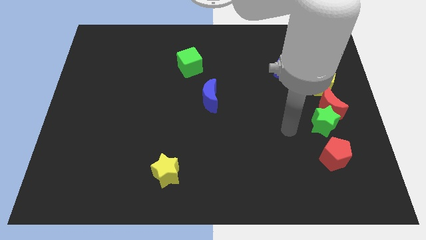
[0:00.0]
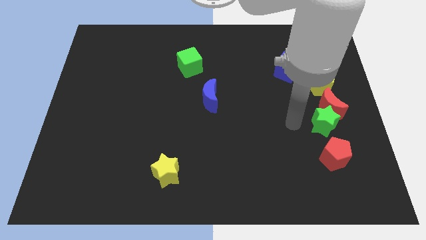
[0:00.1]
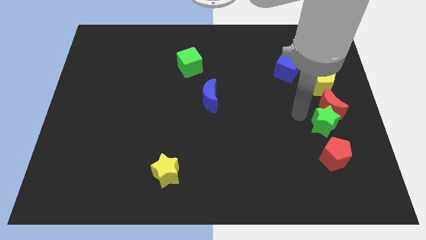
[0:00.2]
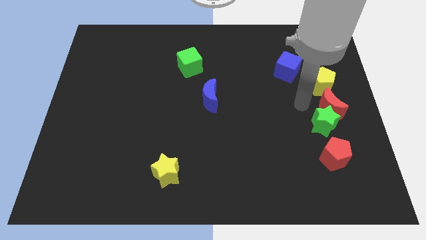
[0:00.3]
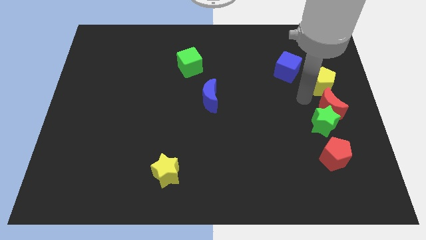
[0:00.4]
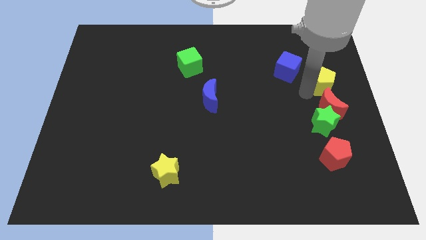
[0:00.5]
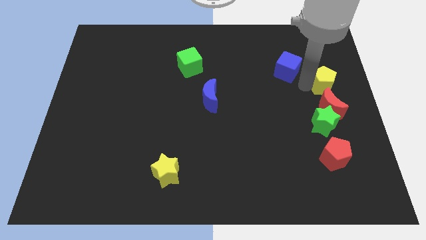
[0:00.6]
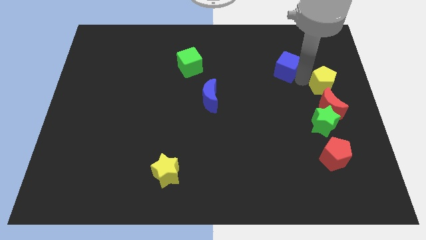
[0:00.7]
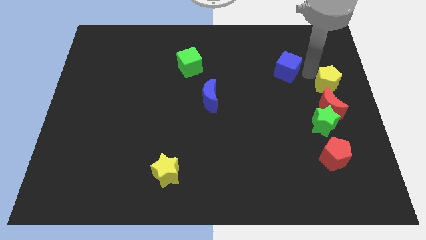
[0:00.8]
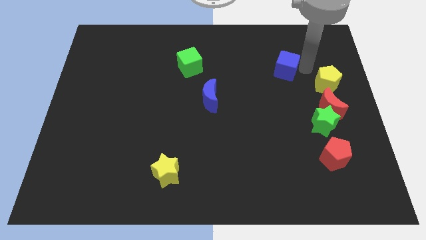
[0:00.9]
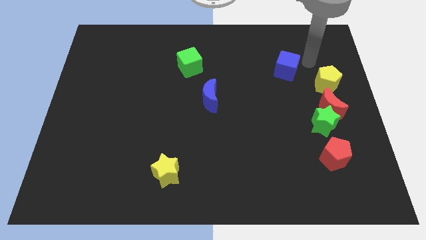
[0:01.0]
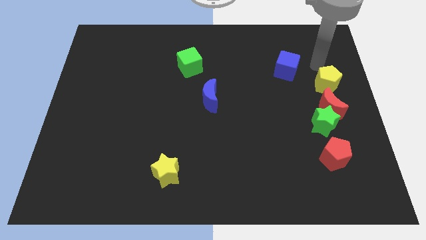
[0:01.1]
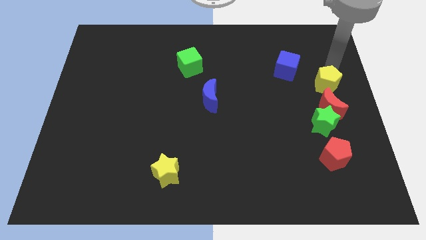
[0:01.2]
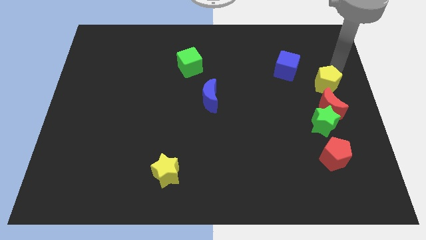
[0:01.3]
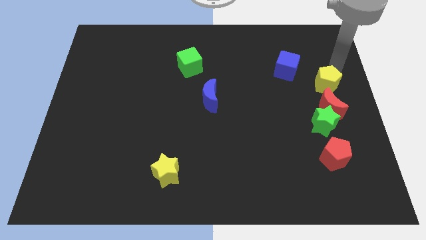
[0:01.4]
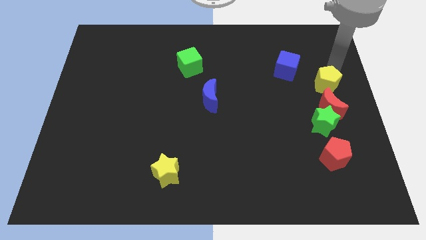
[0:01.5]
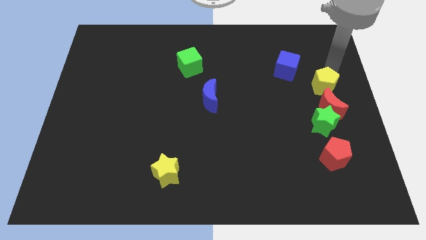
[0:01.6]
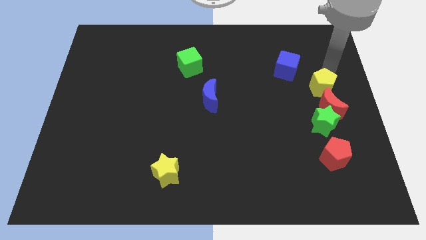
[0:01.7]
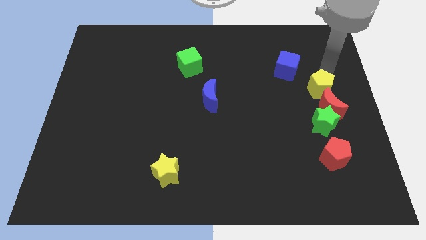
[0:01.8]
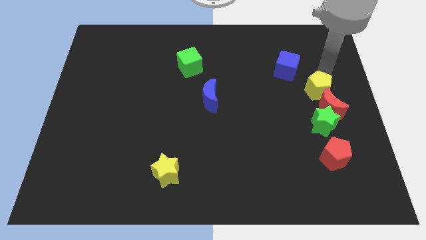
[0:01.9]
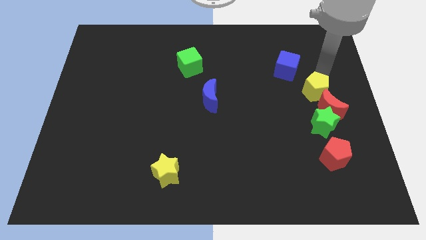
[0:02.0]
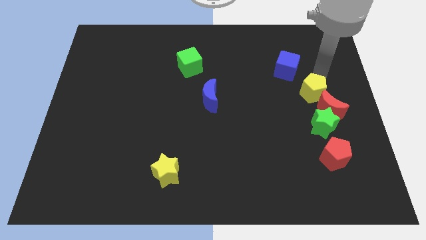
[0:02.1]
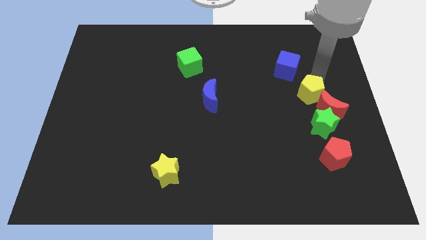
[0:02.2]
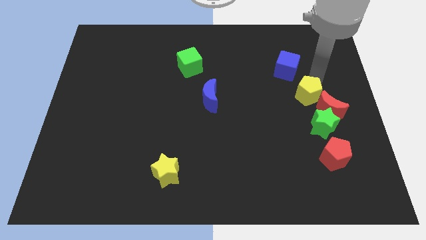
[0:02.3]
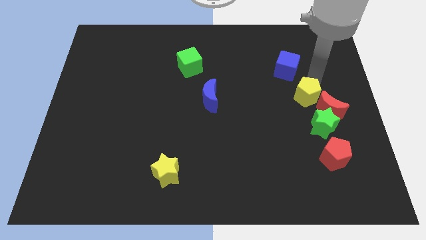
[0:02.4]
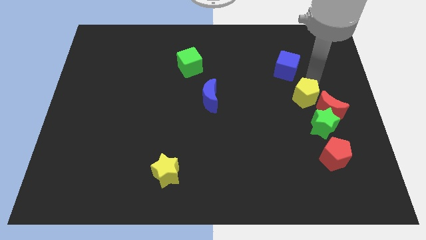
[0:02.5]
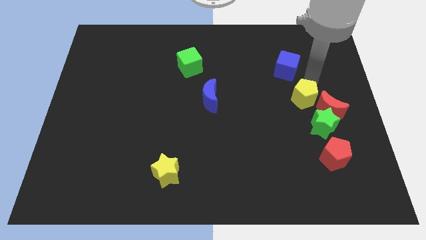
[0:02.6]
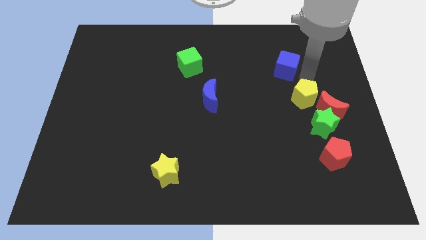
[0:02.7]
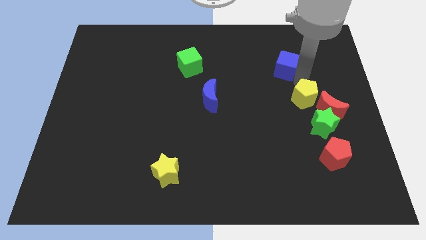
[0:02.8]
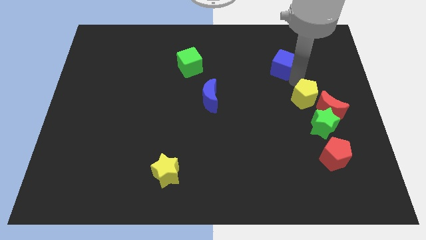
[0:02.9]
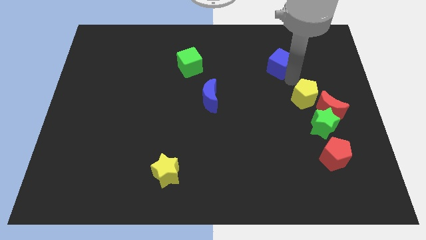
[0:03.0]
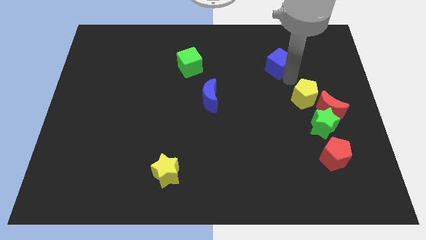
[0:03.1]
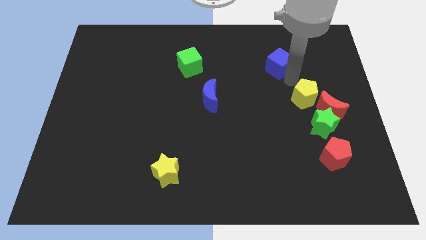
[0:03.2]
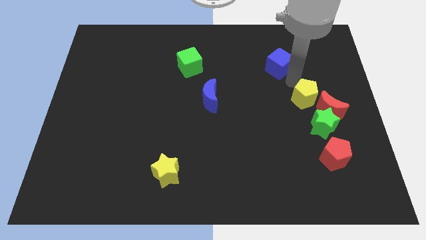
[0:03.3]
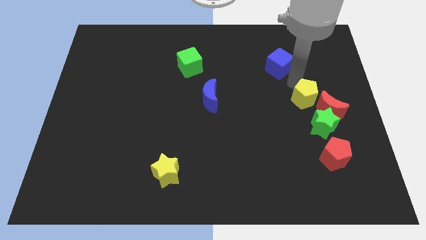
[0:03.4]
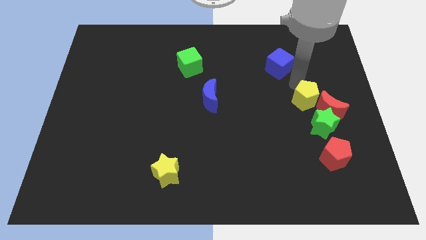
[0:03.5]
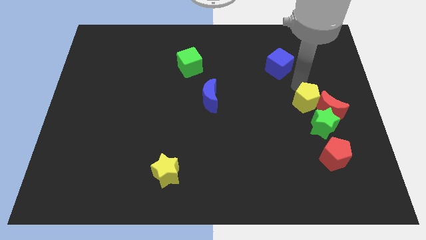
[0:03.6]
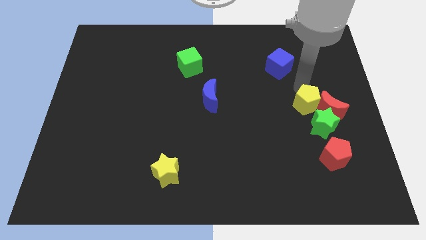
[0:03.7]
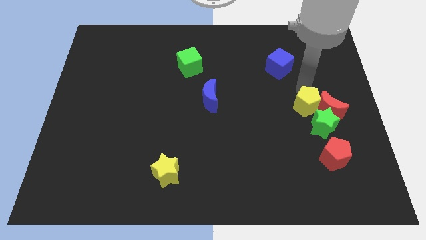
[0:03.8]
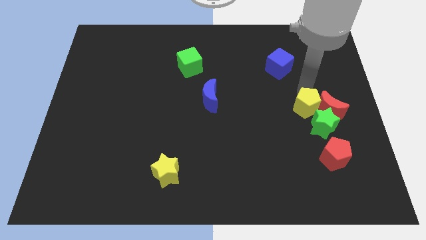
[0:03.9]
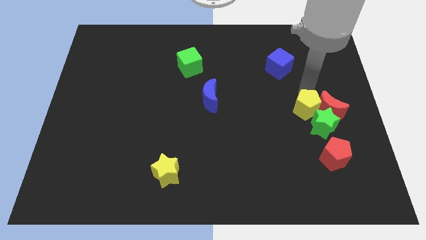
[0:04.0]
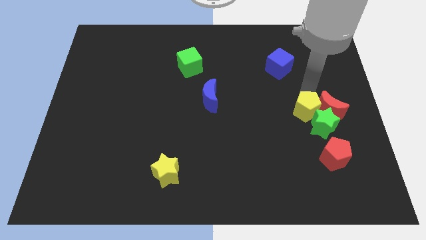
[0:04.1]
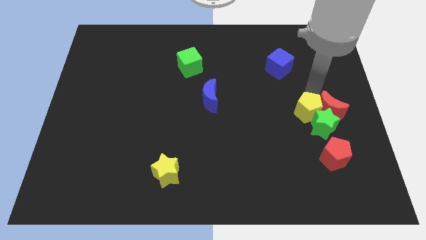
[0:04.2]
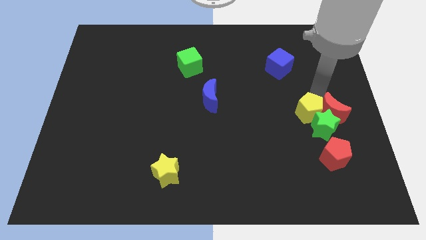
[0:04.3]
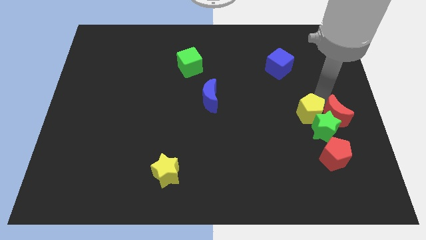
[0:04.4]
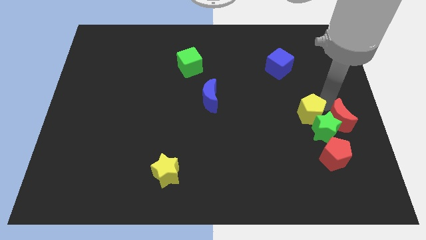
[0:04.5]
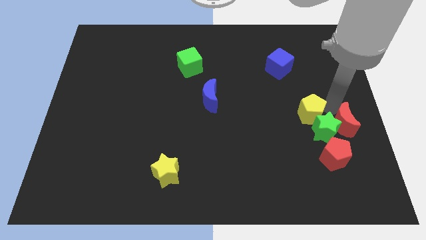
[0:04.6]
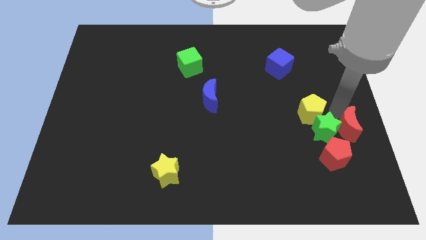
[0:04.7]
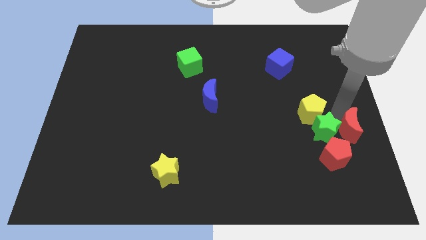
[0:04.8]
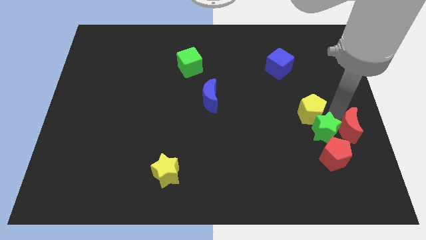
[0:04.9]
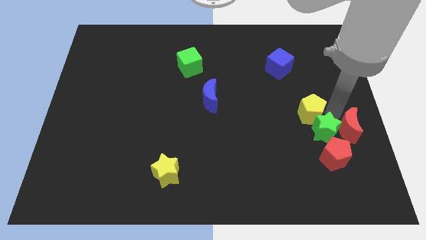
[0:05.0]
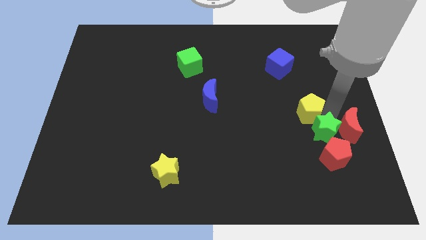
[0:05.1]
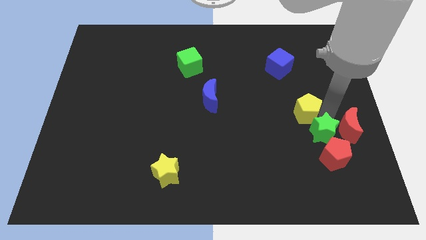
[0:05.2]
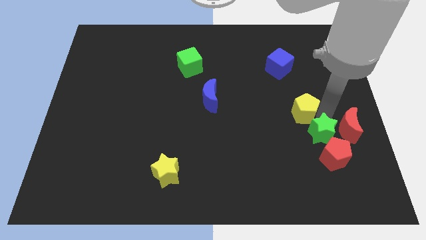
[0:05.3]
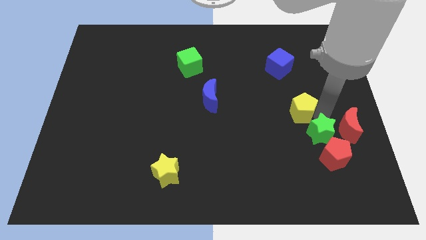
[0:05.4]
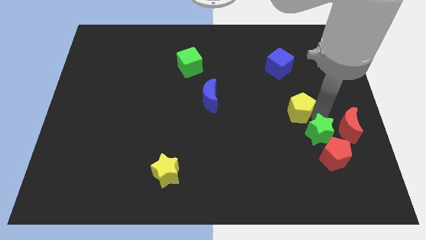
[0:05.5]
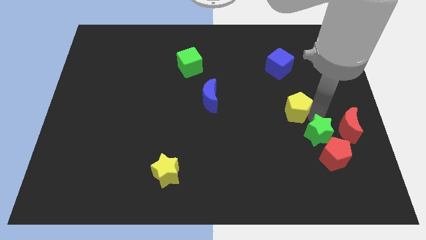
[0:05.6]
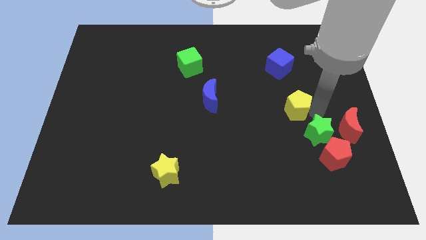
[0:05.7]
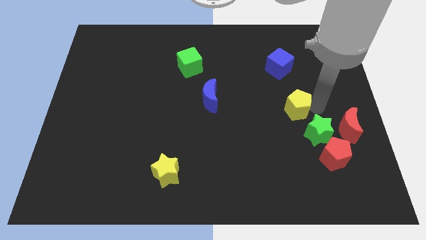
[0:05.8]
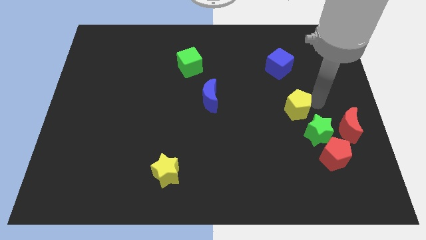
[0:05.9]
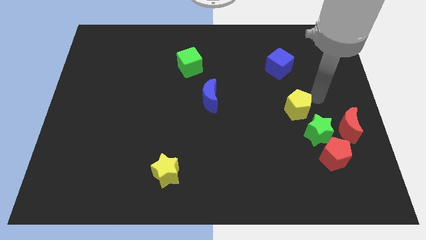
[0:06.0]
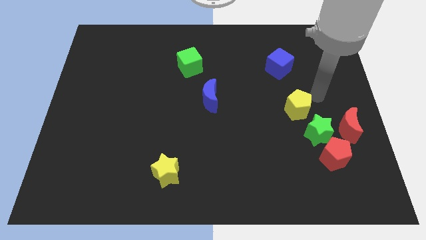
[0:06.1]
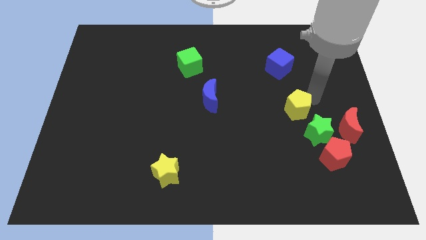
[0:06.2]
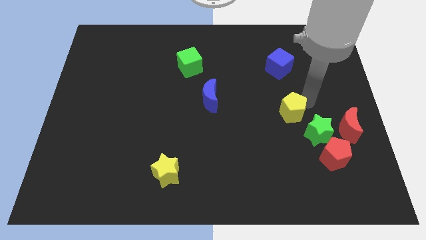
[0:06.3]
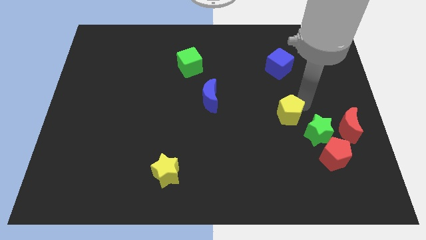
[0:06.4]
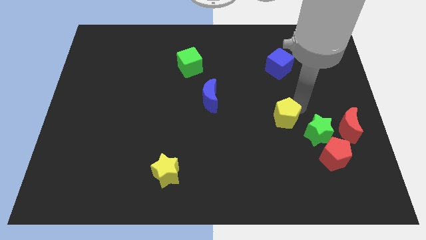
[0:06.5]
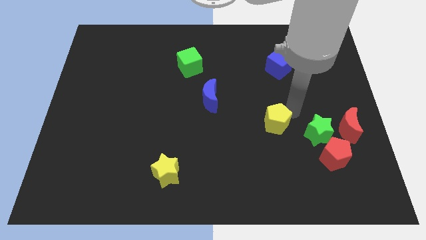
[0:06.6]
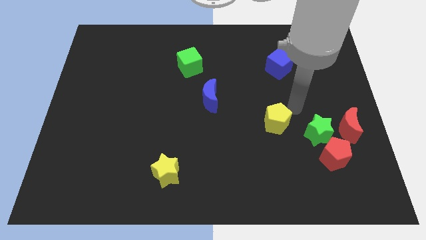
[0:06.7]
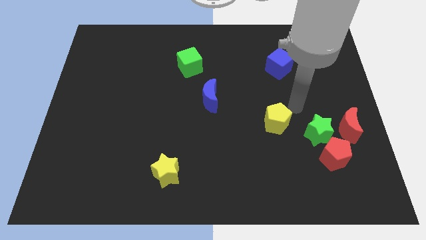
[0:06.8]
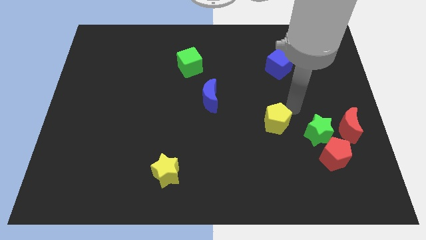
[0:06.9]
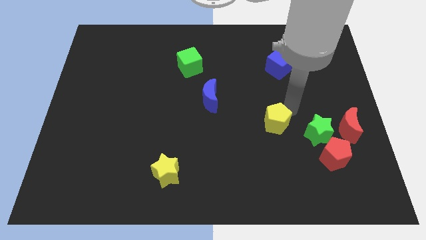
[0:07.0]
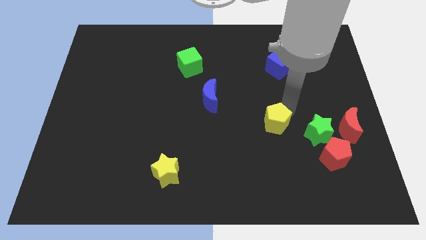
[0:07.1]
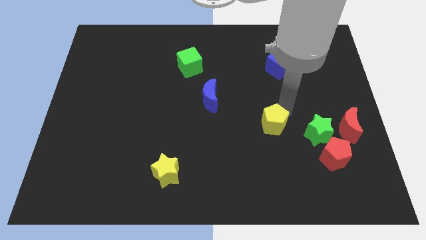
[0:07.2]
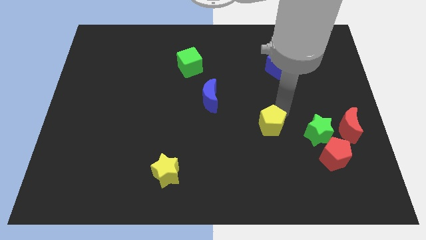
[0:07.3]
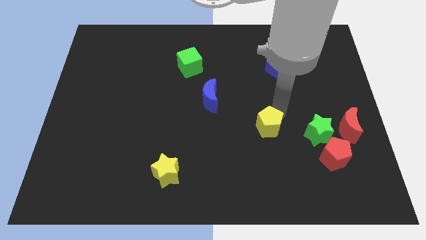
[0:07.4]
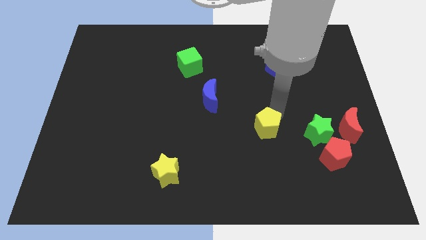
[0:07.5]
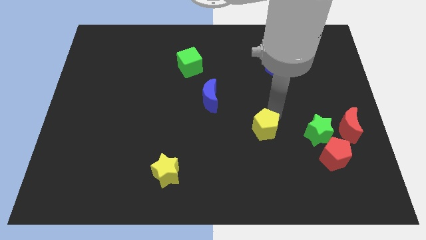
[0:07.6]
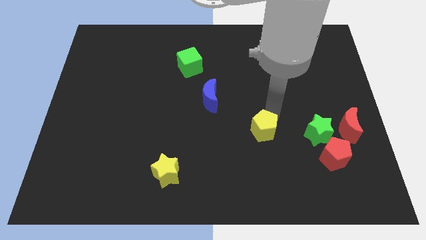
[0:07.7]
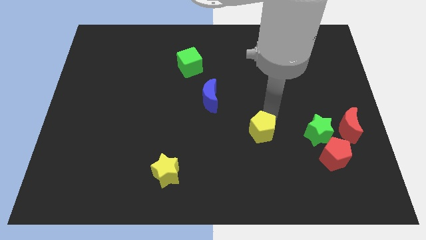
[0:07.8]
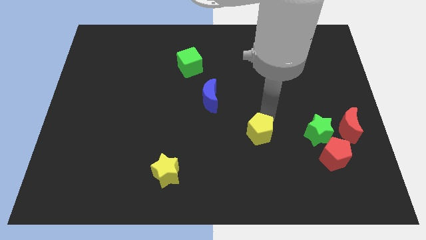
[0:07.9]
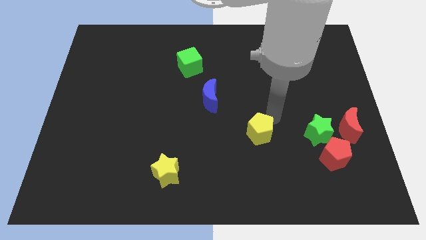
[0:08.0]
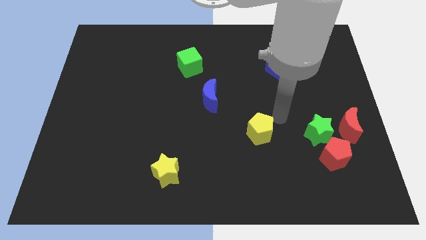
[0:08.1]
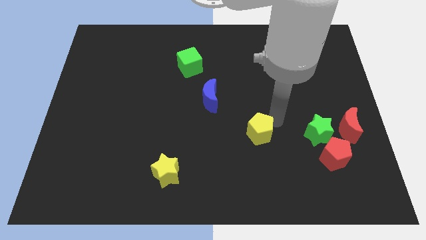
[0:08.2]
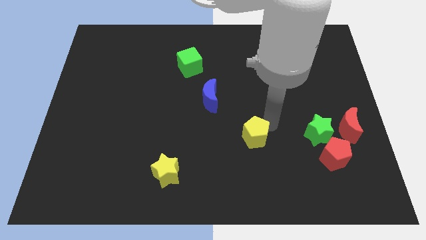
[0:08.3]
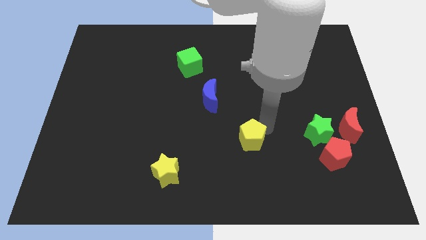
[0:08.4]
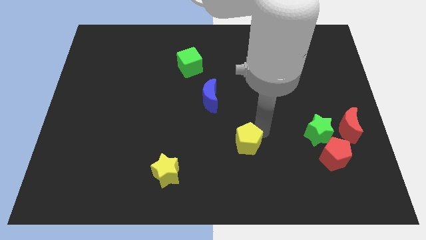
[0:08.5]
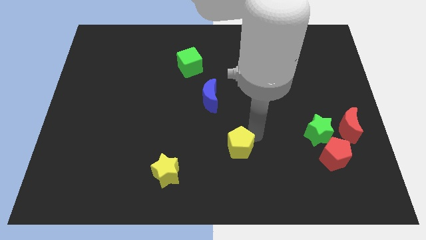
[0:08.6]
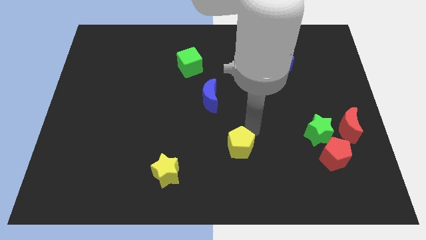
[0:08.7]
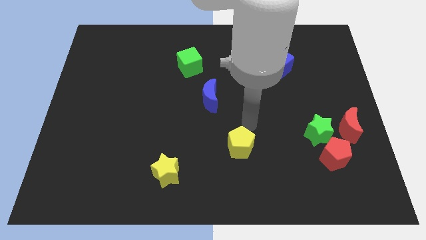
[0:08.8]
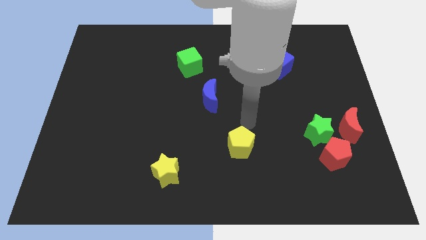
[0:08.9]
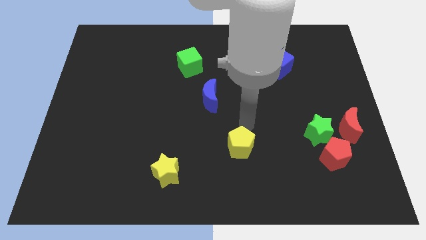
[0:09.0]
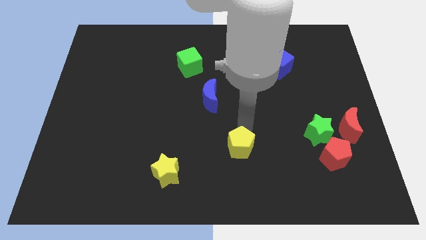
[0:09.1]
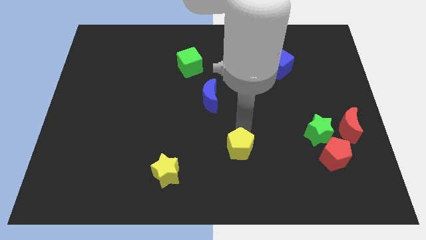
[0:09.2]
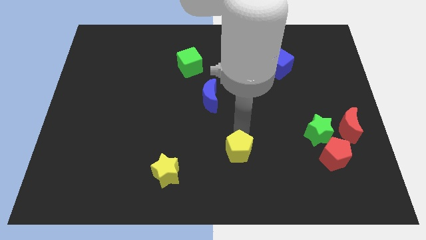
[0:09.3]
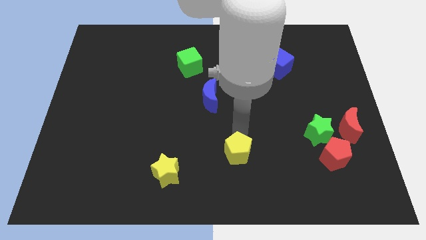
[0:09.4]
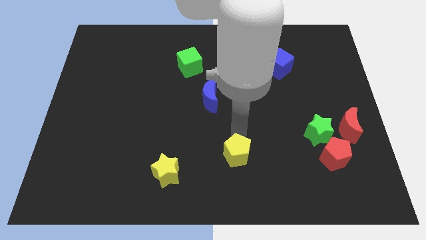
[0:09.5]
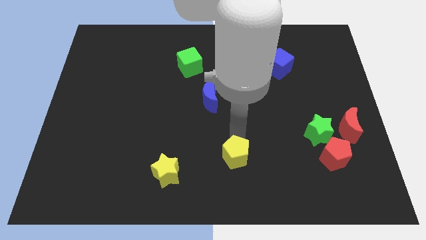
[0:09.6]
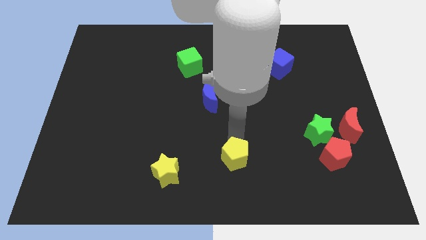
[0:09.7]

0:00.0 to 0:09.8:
push the yellow pentagon to the bottom side
